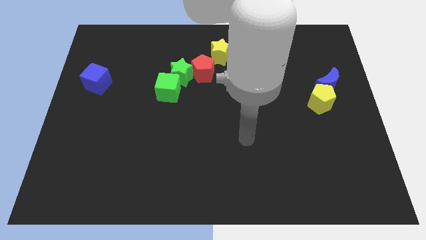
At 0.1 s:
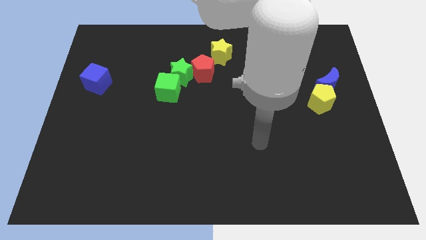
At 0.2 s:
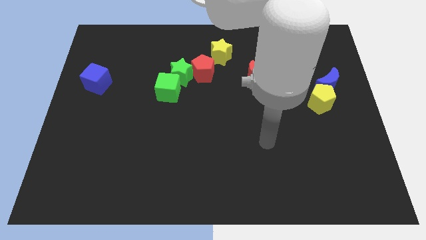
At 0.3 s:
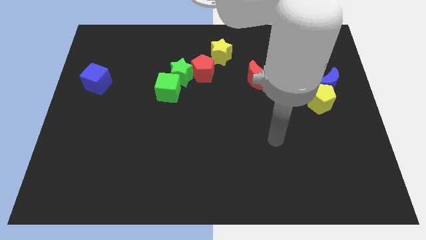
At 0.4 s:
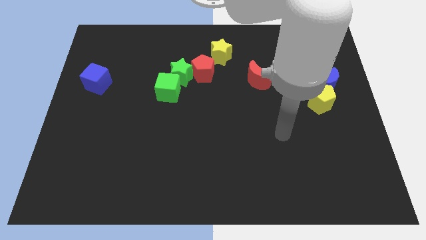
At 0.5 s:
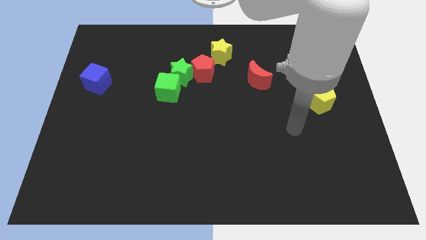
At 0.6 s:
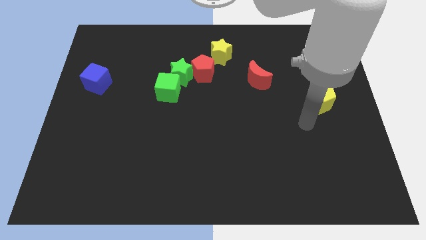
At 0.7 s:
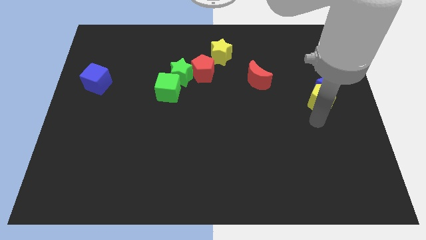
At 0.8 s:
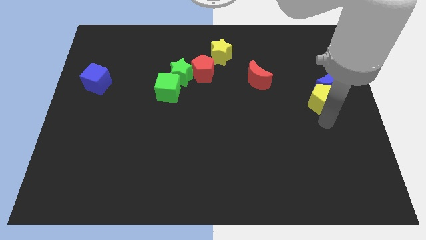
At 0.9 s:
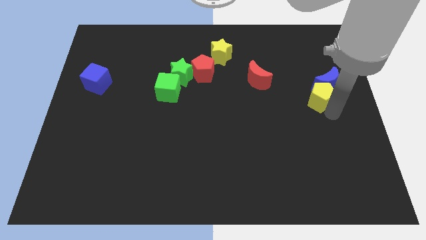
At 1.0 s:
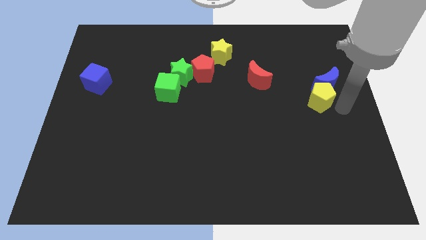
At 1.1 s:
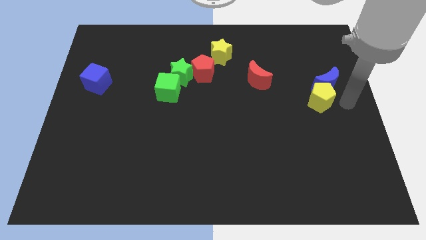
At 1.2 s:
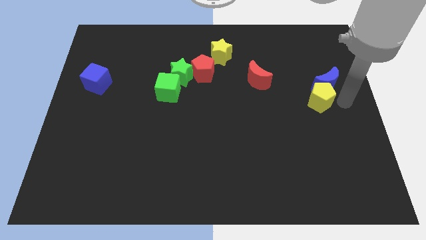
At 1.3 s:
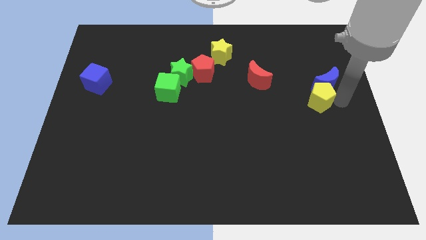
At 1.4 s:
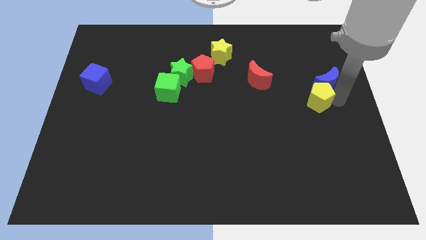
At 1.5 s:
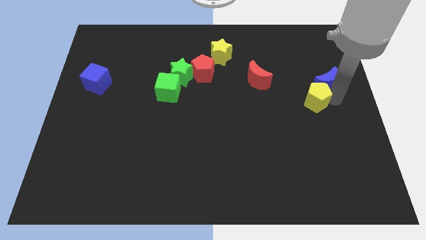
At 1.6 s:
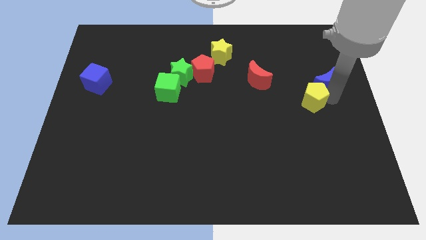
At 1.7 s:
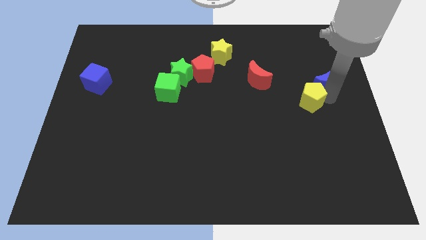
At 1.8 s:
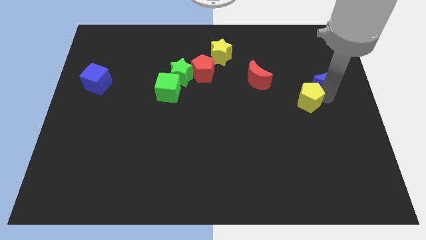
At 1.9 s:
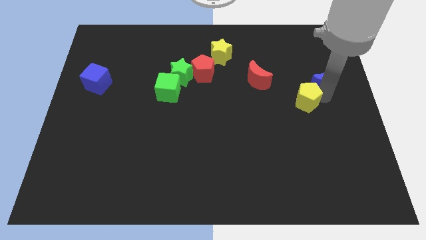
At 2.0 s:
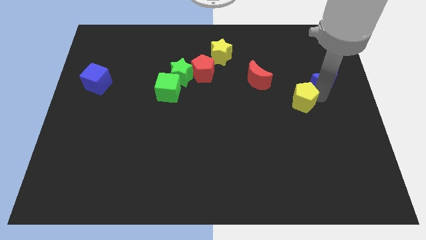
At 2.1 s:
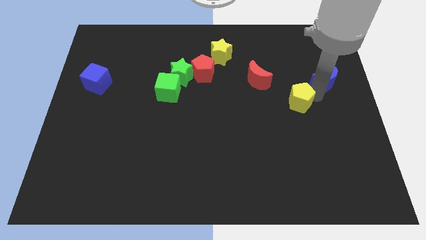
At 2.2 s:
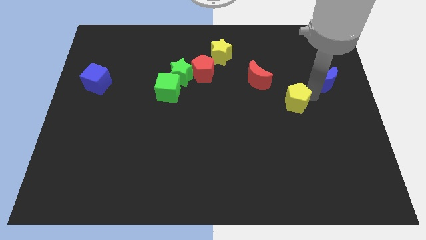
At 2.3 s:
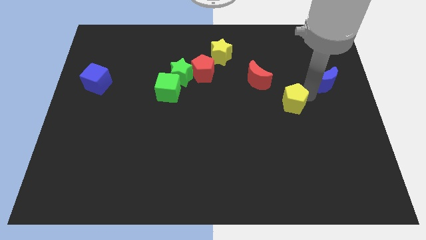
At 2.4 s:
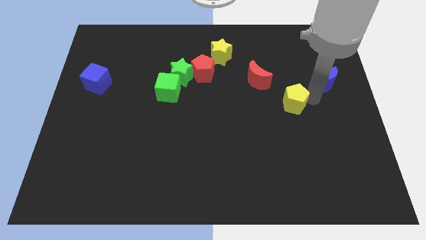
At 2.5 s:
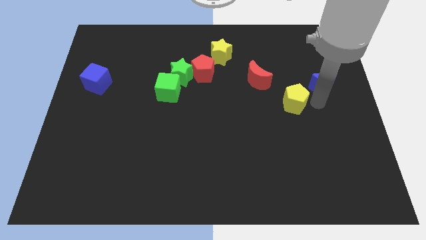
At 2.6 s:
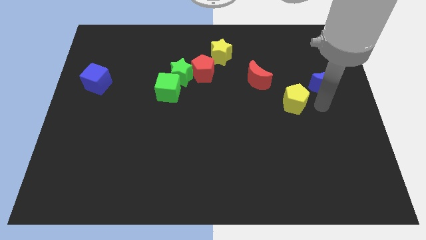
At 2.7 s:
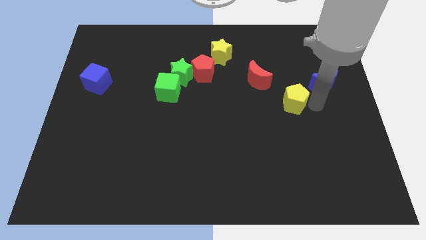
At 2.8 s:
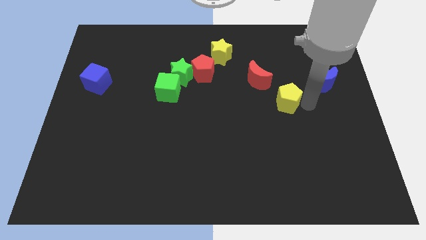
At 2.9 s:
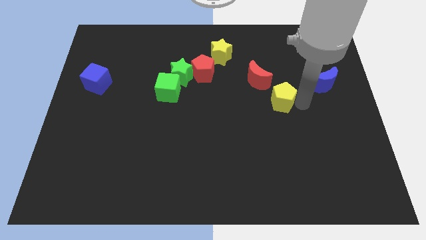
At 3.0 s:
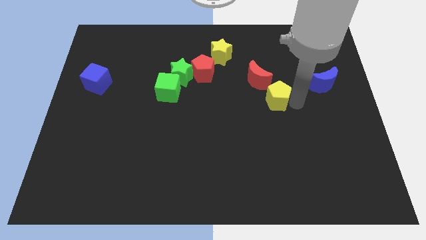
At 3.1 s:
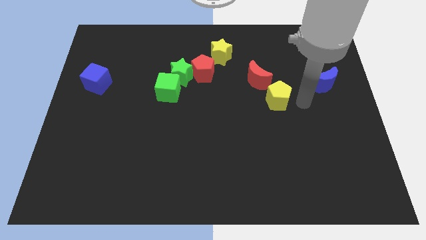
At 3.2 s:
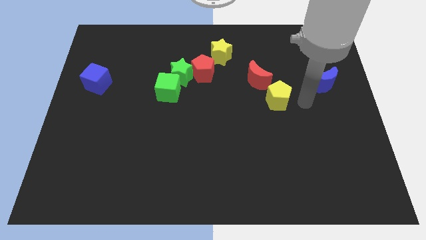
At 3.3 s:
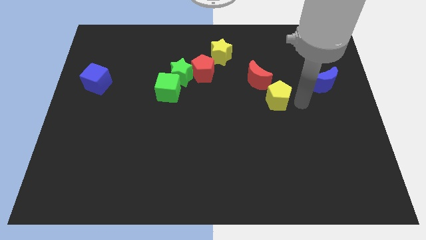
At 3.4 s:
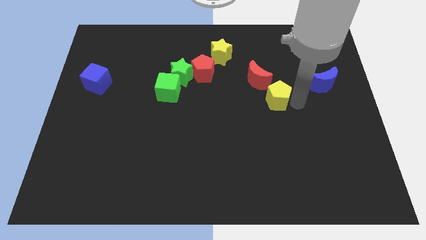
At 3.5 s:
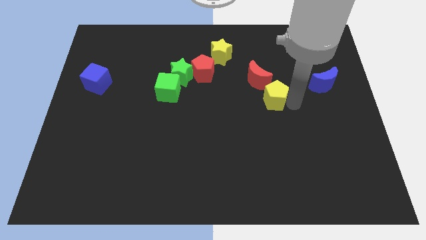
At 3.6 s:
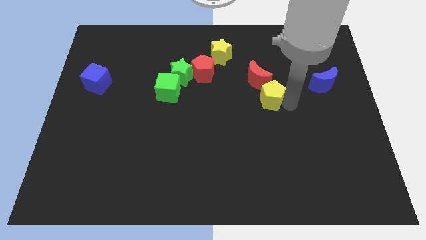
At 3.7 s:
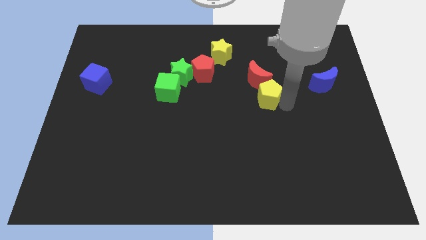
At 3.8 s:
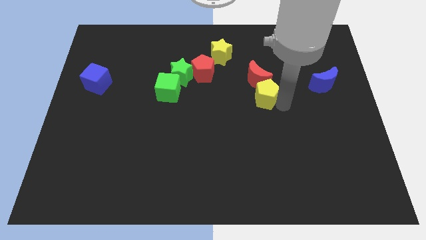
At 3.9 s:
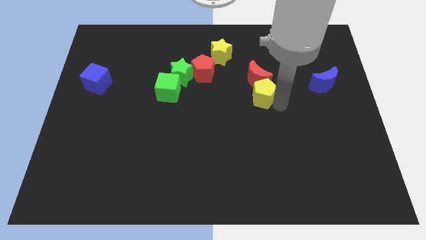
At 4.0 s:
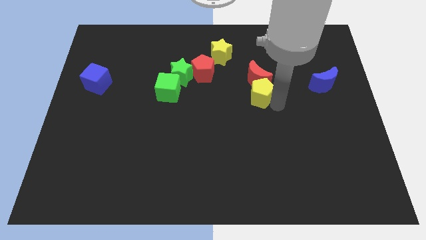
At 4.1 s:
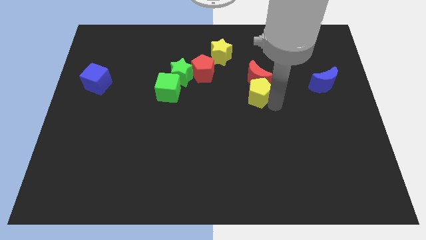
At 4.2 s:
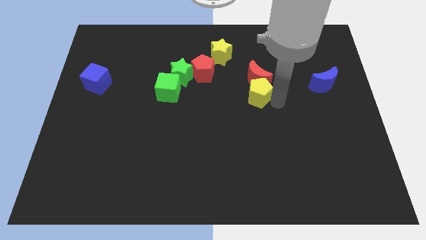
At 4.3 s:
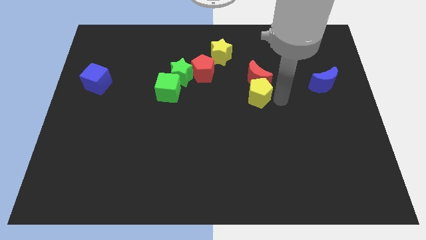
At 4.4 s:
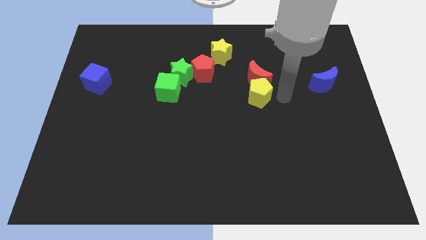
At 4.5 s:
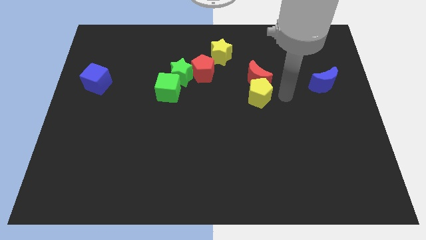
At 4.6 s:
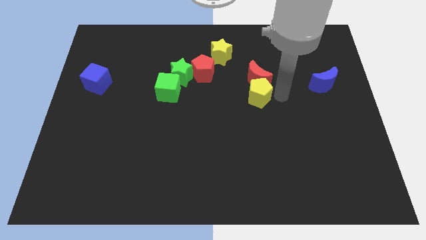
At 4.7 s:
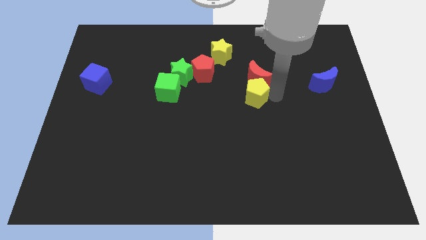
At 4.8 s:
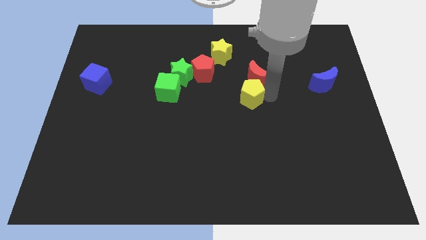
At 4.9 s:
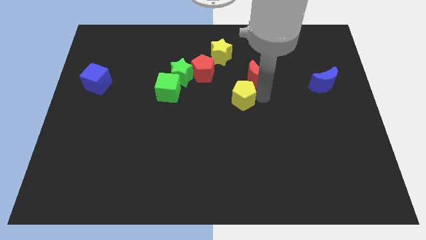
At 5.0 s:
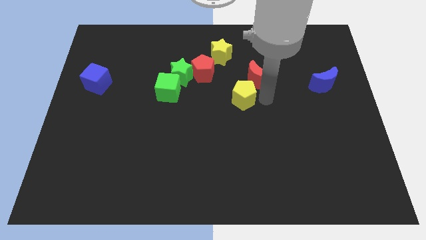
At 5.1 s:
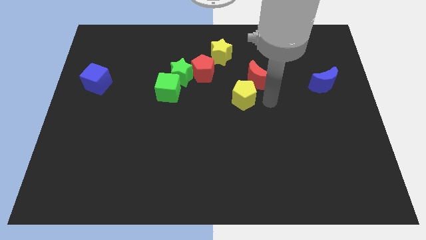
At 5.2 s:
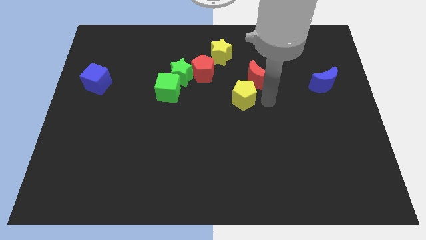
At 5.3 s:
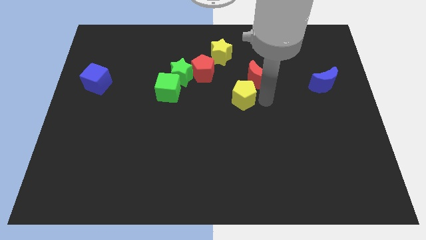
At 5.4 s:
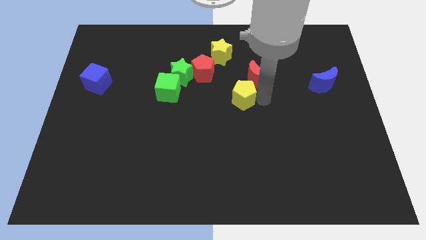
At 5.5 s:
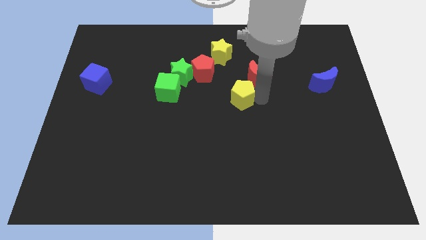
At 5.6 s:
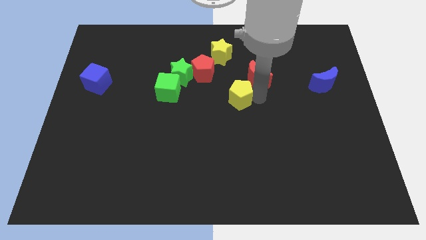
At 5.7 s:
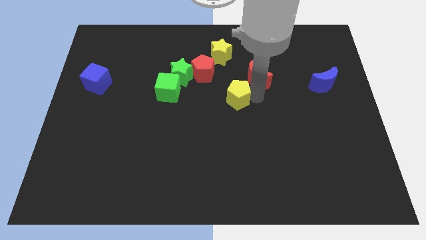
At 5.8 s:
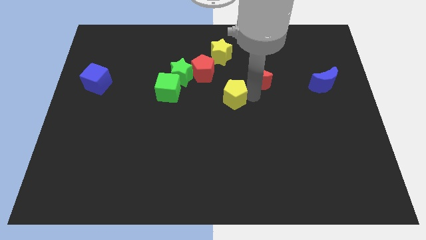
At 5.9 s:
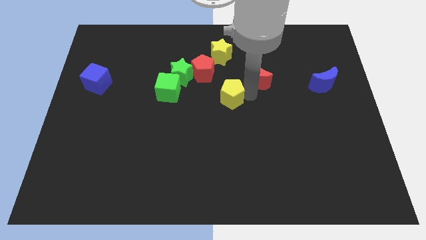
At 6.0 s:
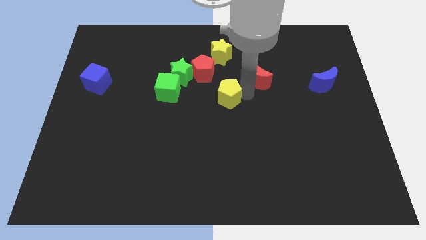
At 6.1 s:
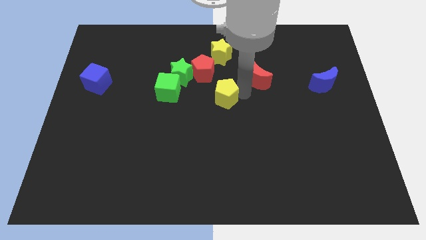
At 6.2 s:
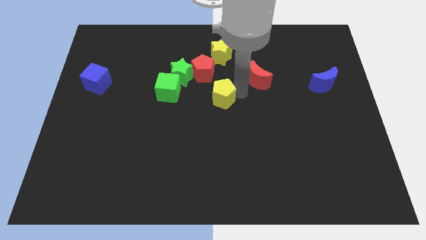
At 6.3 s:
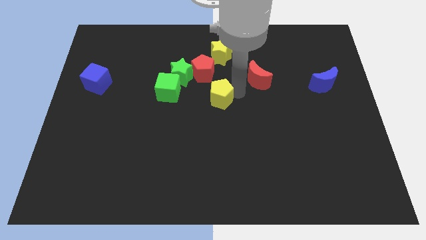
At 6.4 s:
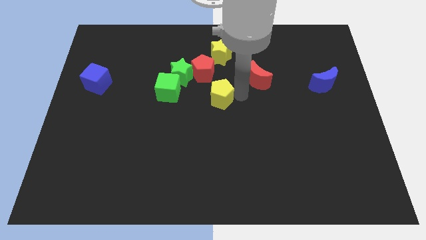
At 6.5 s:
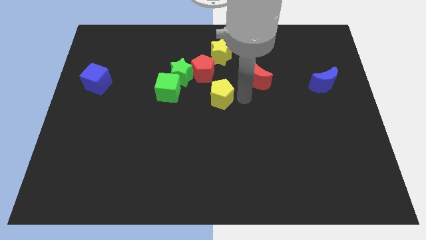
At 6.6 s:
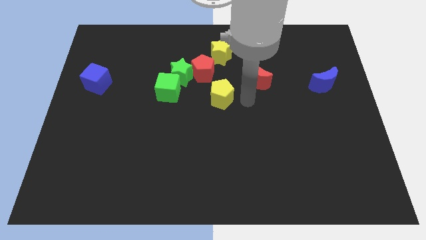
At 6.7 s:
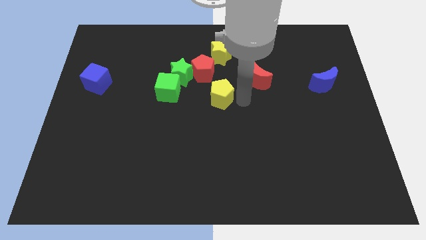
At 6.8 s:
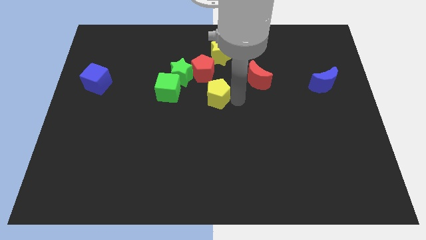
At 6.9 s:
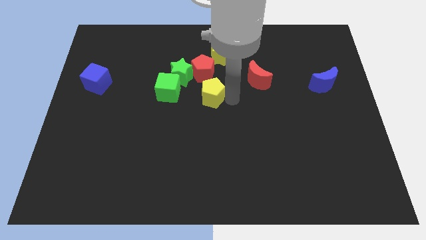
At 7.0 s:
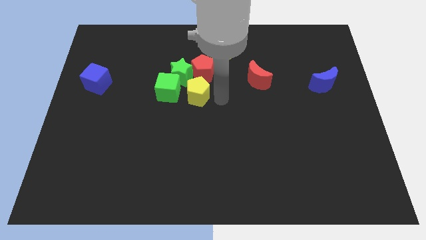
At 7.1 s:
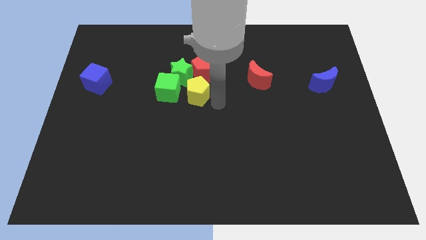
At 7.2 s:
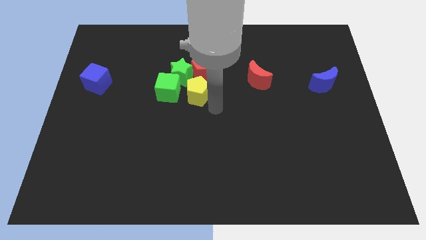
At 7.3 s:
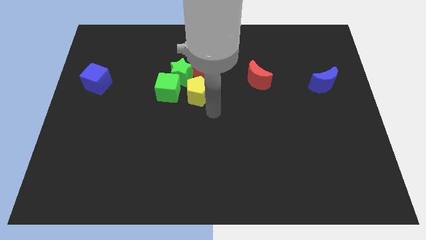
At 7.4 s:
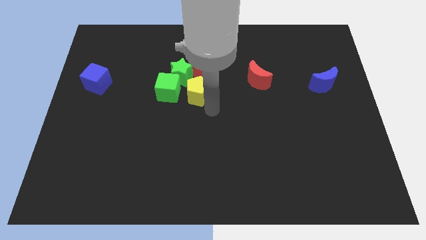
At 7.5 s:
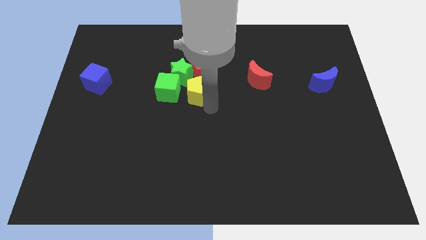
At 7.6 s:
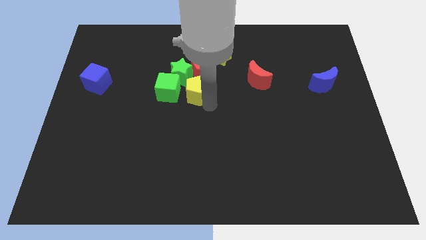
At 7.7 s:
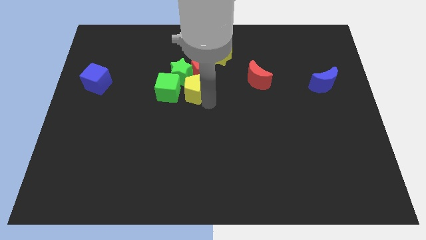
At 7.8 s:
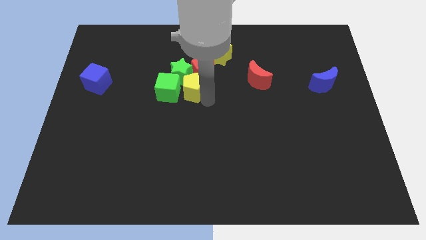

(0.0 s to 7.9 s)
move the yellow pentagon close to the green star
